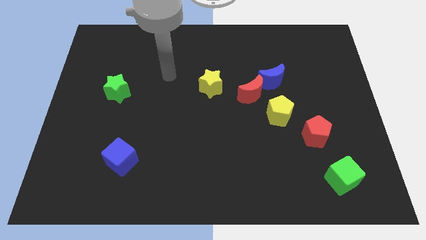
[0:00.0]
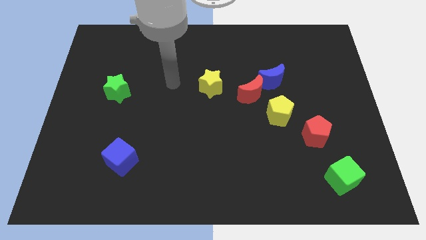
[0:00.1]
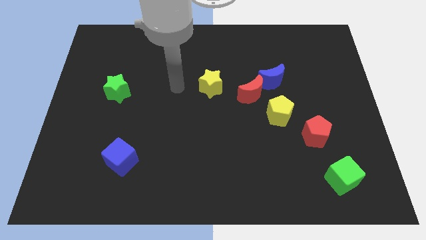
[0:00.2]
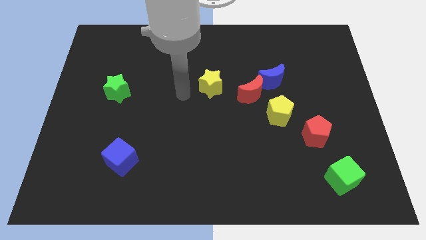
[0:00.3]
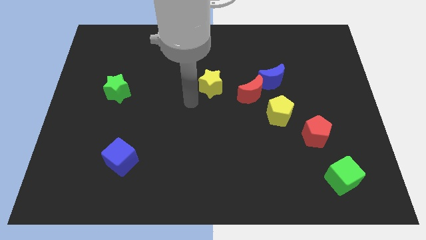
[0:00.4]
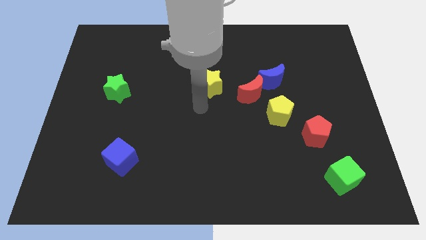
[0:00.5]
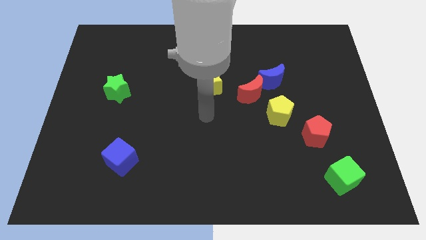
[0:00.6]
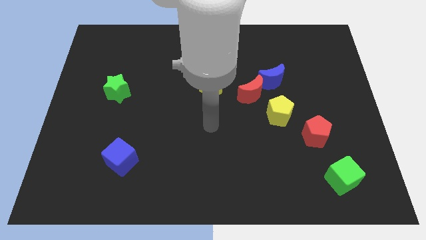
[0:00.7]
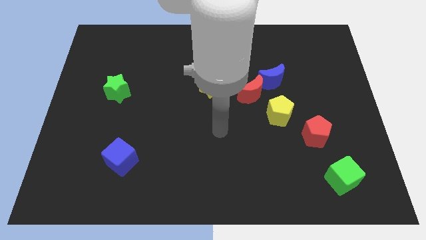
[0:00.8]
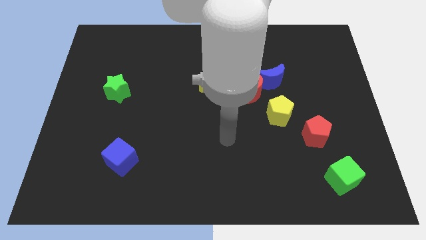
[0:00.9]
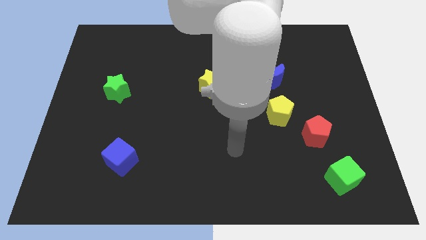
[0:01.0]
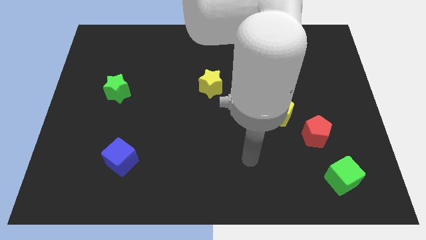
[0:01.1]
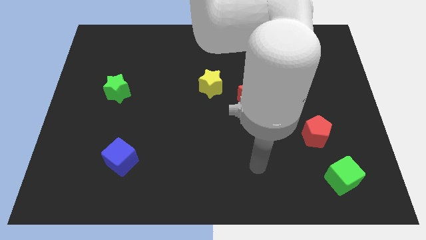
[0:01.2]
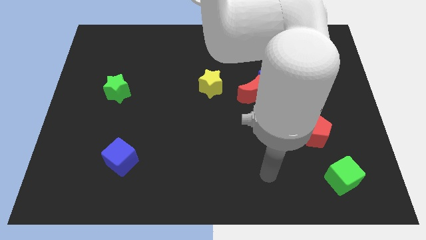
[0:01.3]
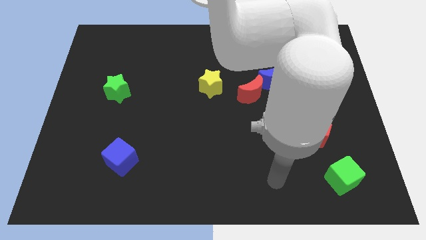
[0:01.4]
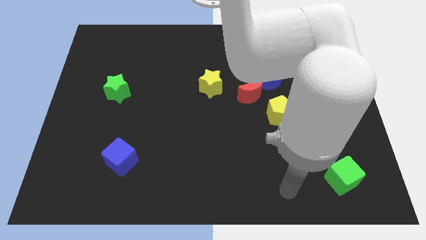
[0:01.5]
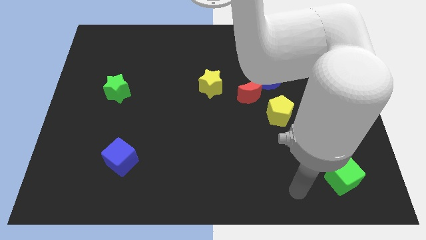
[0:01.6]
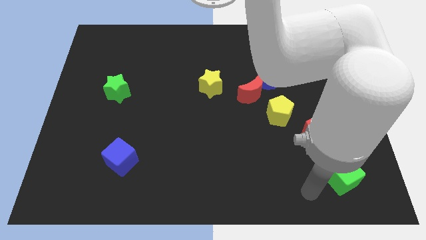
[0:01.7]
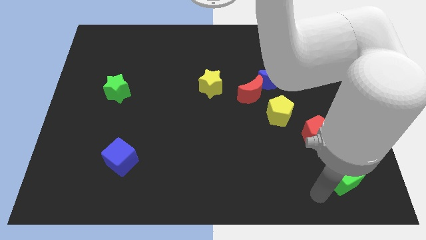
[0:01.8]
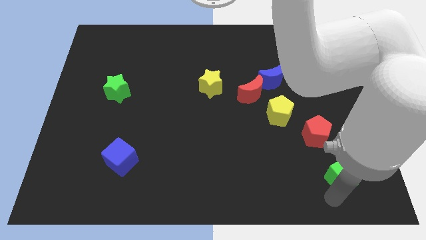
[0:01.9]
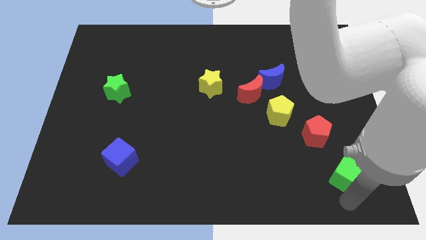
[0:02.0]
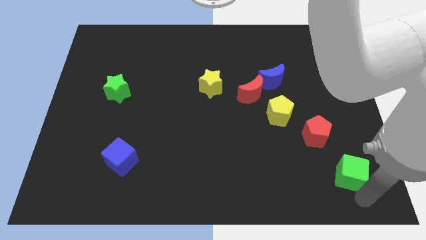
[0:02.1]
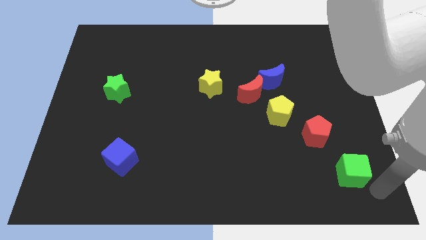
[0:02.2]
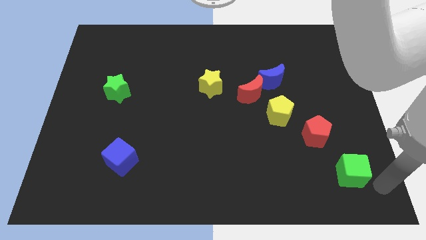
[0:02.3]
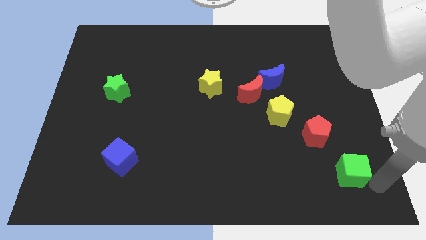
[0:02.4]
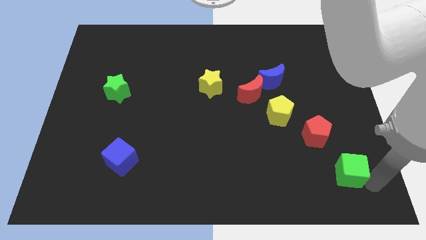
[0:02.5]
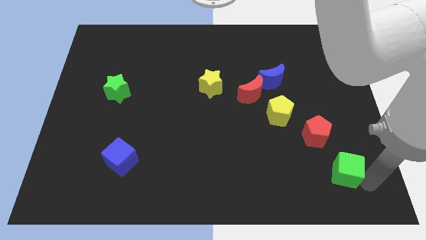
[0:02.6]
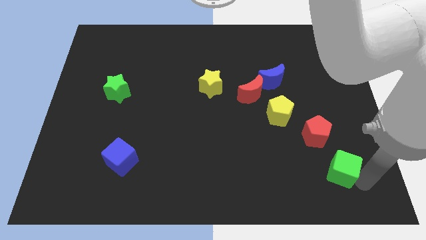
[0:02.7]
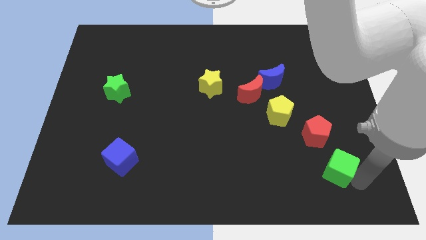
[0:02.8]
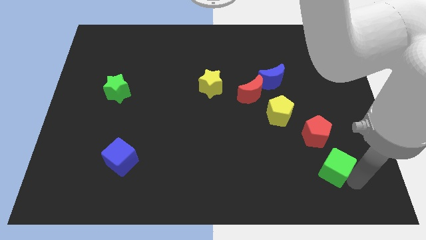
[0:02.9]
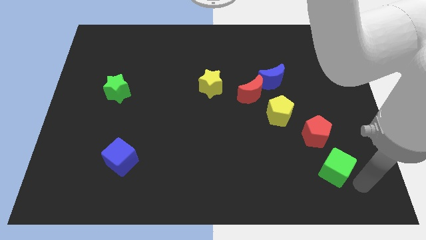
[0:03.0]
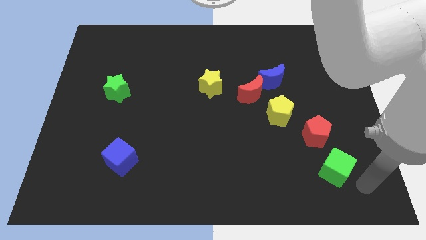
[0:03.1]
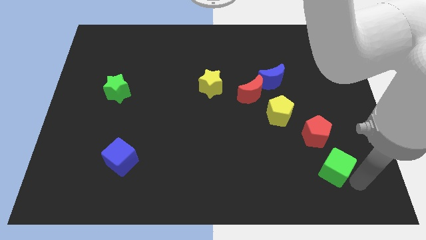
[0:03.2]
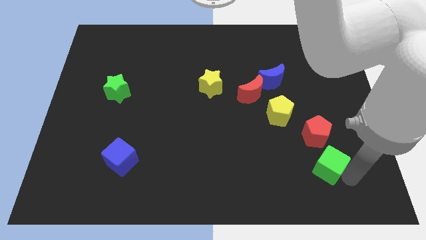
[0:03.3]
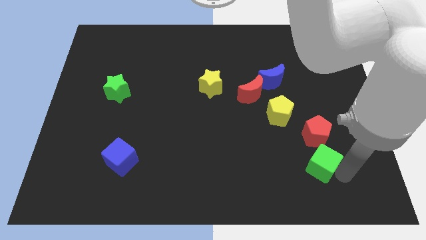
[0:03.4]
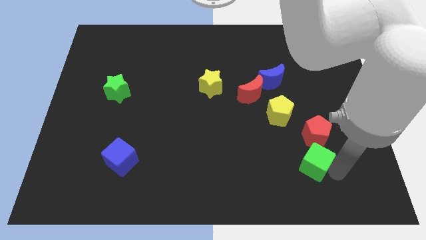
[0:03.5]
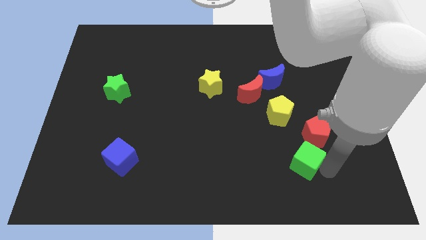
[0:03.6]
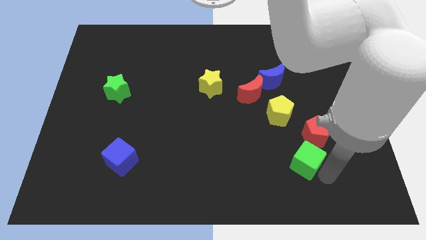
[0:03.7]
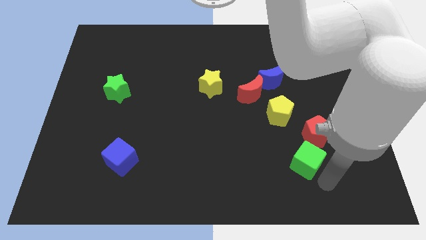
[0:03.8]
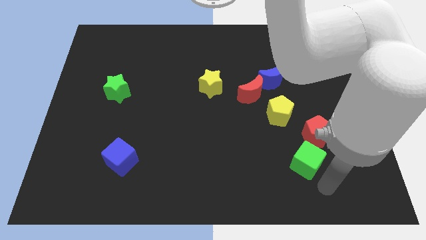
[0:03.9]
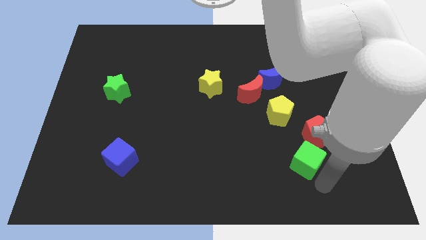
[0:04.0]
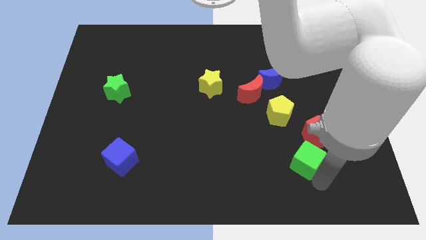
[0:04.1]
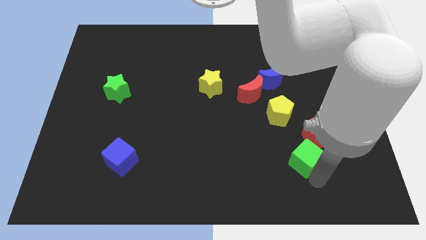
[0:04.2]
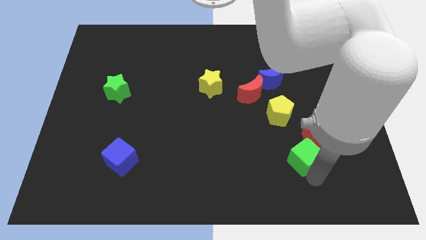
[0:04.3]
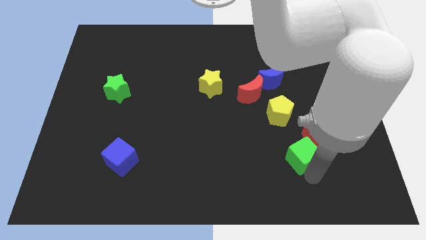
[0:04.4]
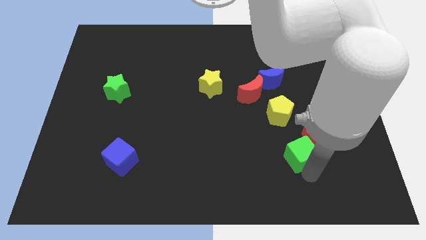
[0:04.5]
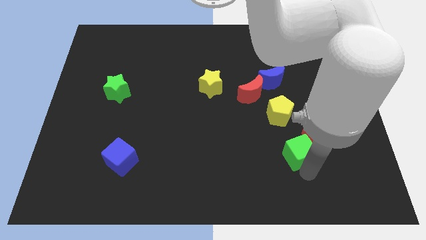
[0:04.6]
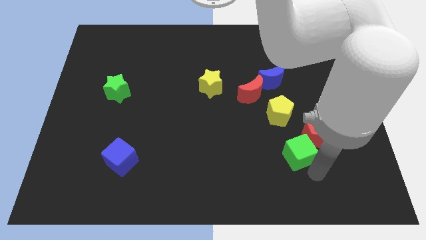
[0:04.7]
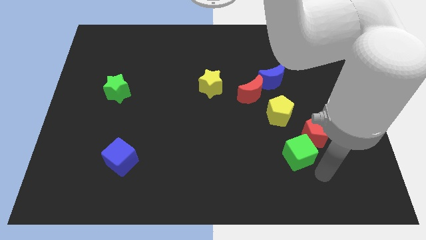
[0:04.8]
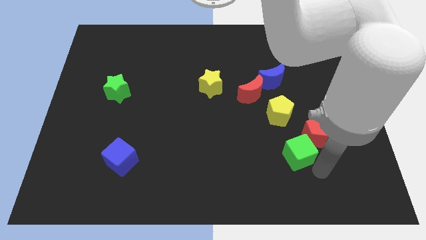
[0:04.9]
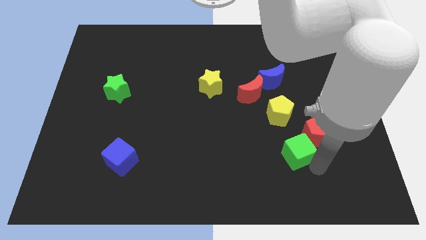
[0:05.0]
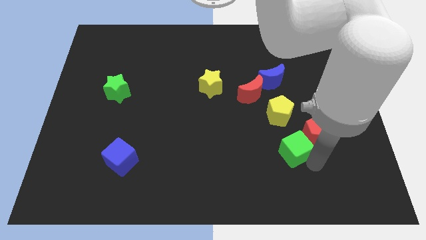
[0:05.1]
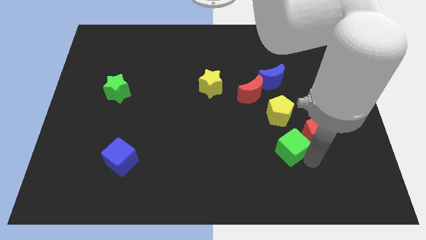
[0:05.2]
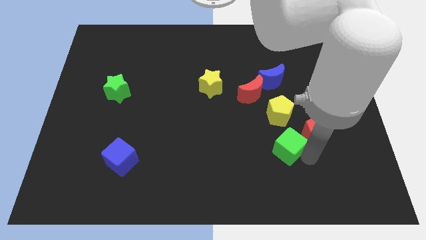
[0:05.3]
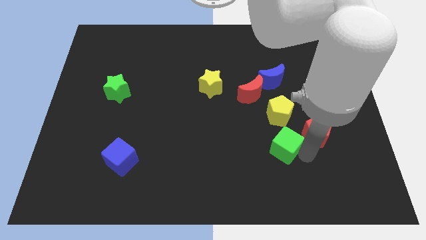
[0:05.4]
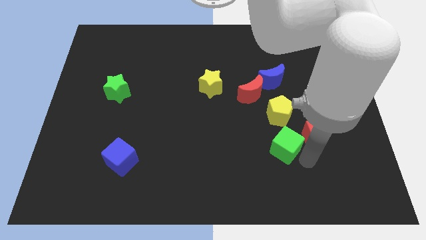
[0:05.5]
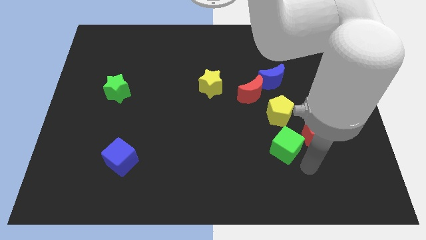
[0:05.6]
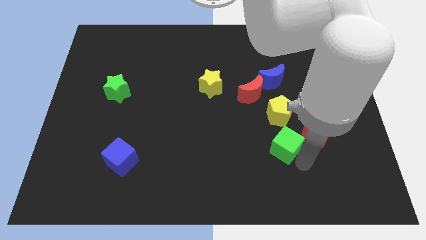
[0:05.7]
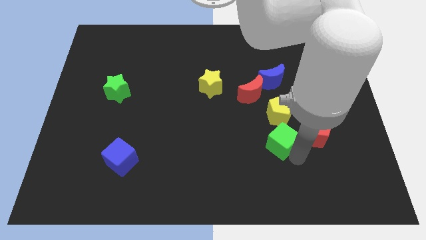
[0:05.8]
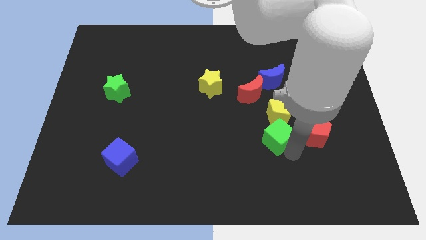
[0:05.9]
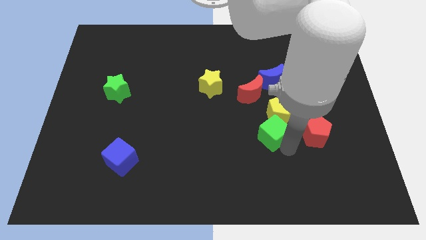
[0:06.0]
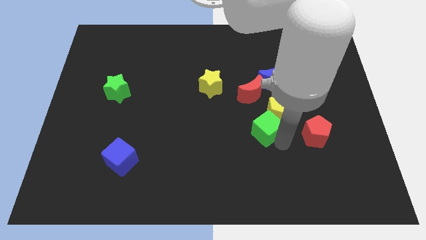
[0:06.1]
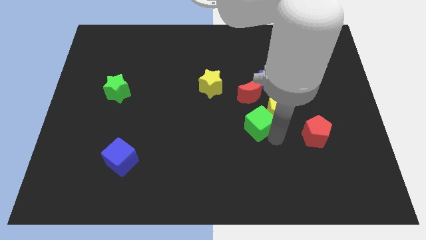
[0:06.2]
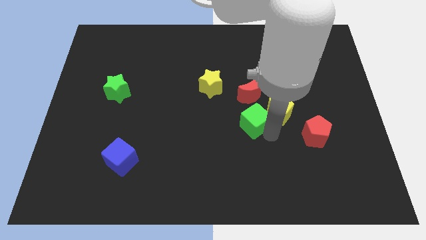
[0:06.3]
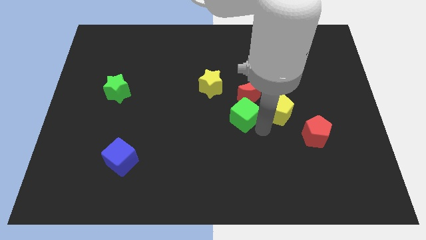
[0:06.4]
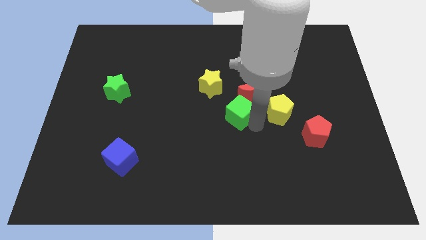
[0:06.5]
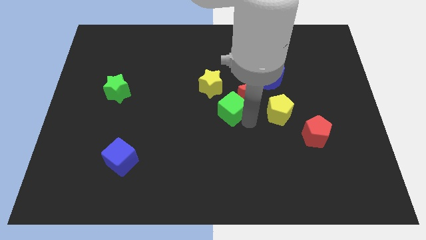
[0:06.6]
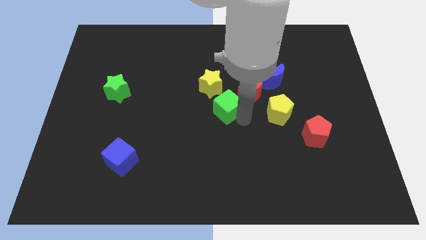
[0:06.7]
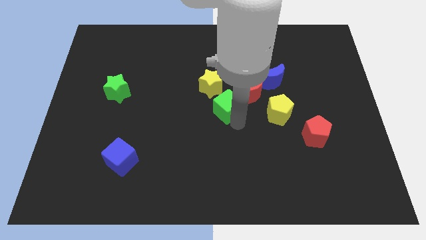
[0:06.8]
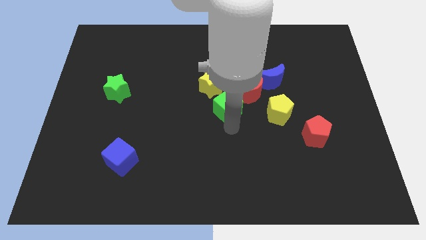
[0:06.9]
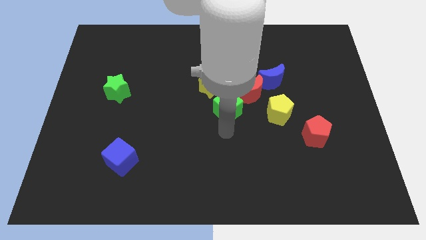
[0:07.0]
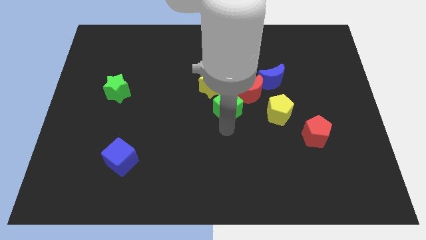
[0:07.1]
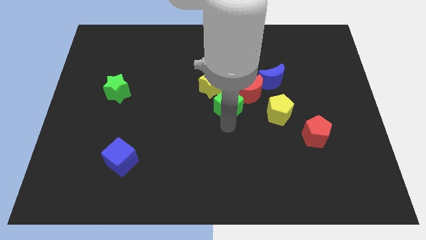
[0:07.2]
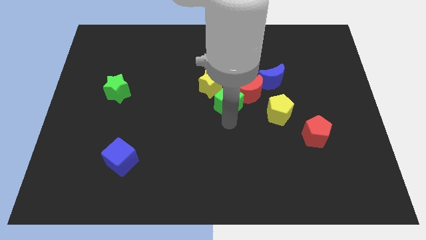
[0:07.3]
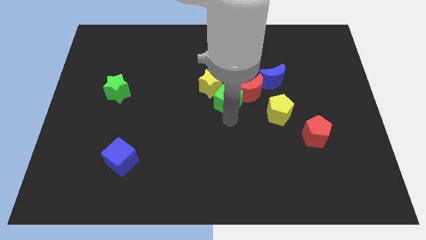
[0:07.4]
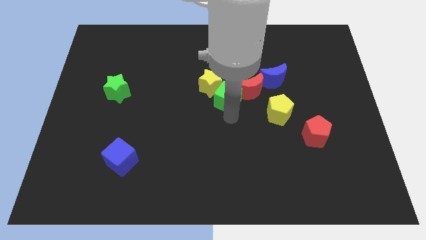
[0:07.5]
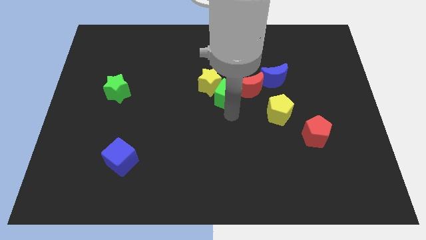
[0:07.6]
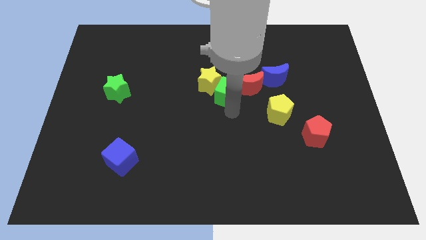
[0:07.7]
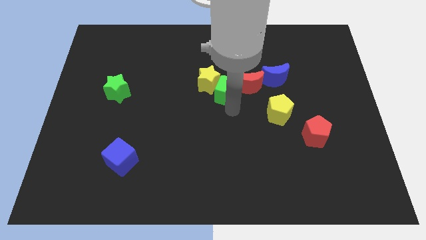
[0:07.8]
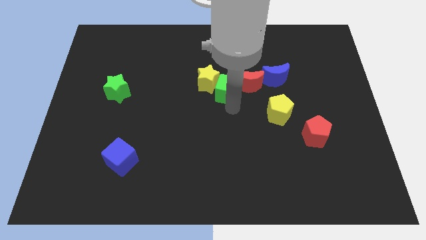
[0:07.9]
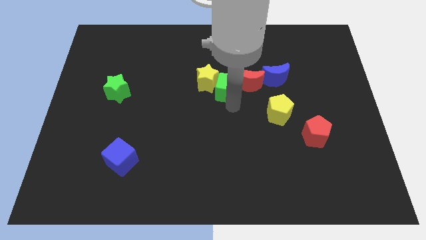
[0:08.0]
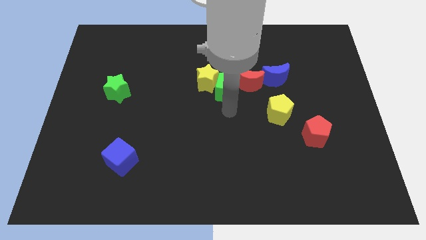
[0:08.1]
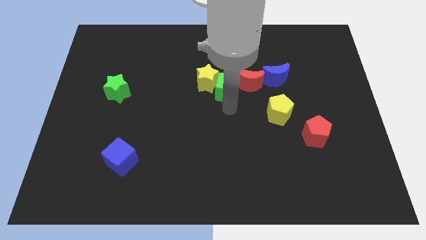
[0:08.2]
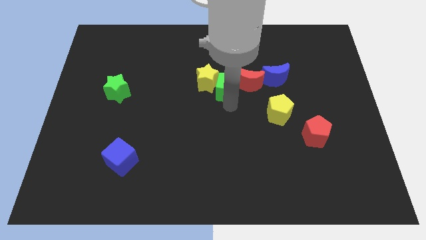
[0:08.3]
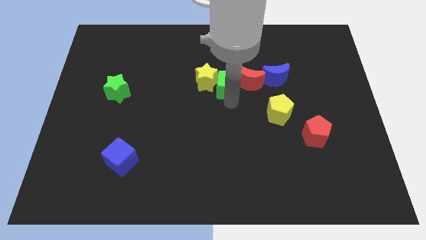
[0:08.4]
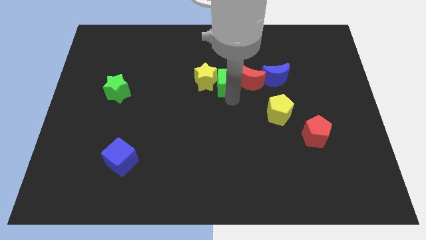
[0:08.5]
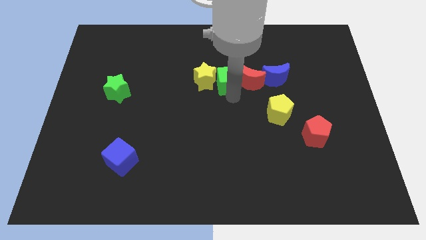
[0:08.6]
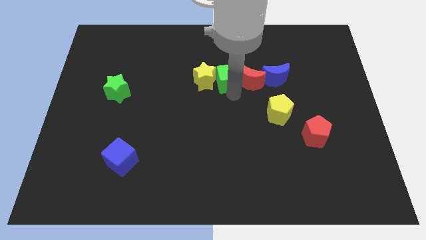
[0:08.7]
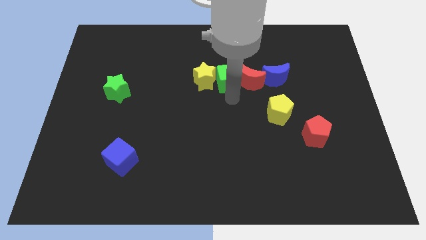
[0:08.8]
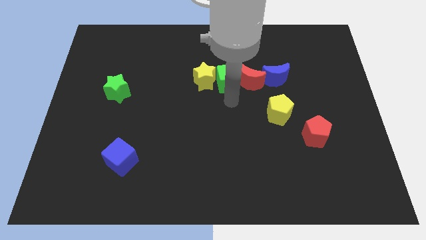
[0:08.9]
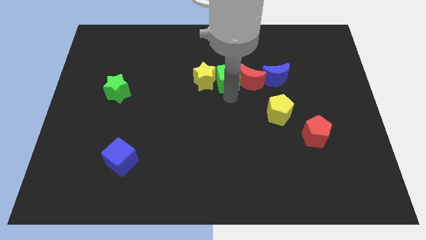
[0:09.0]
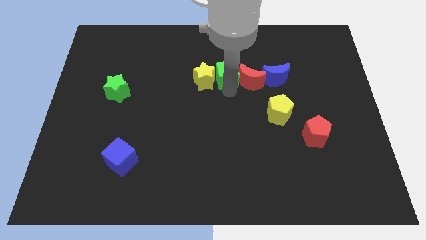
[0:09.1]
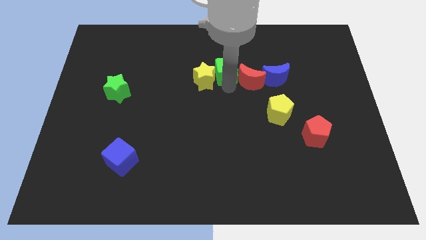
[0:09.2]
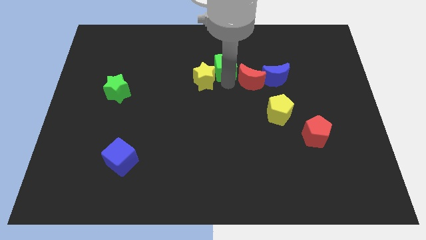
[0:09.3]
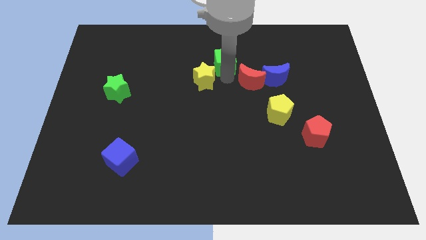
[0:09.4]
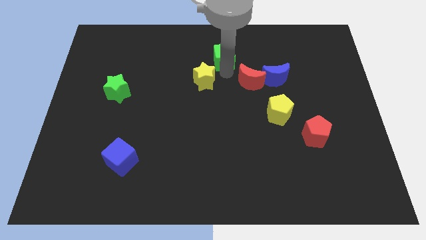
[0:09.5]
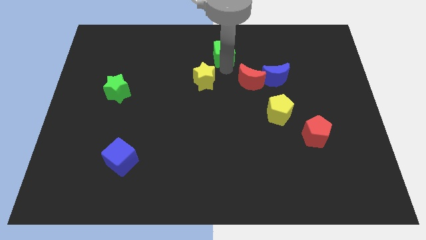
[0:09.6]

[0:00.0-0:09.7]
move the green cube to the top side
